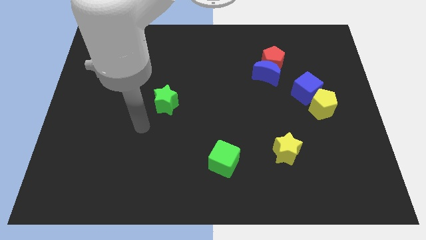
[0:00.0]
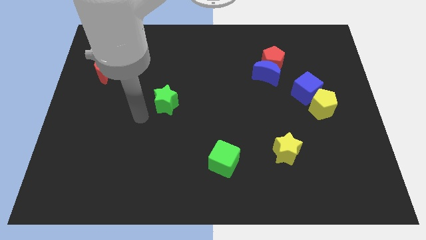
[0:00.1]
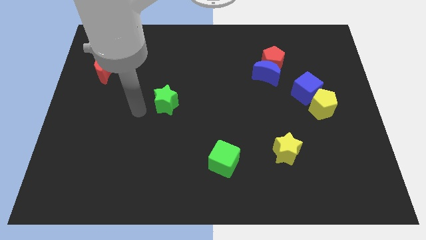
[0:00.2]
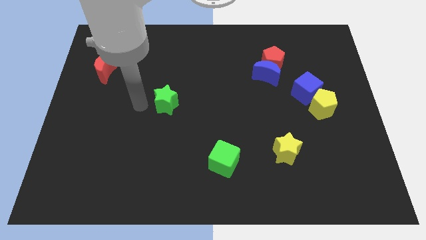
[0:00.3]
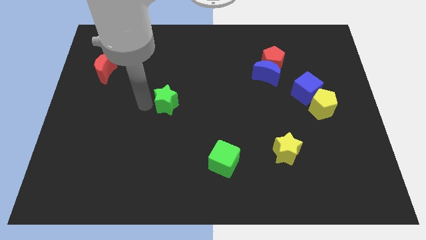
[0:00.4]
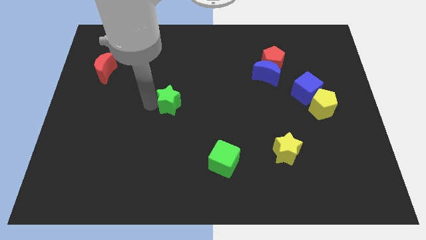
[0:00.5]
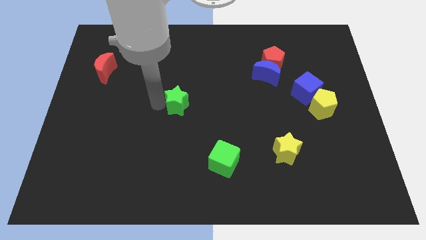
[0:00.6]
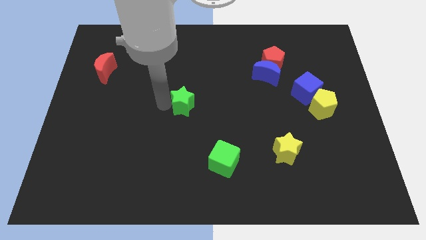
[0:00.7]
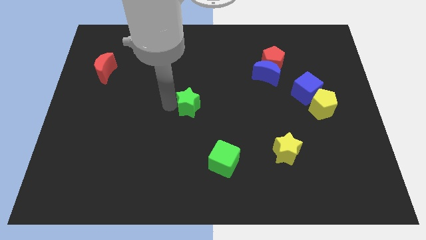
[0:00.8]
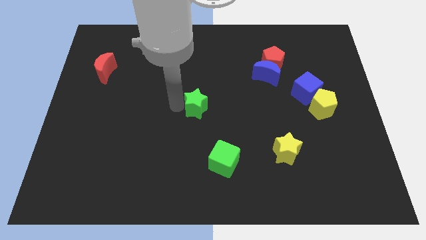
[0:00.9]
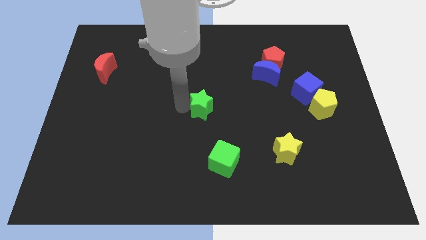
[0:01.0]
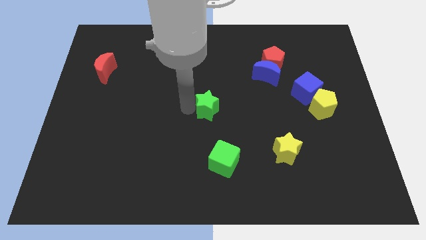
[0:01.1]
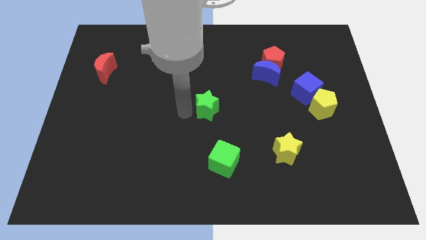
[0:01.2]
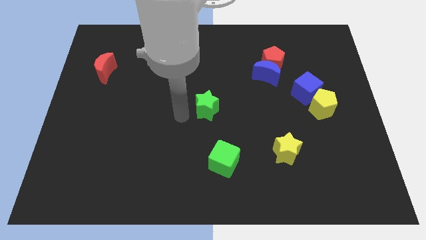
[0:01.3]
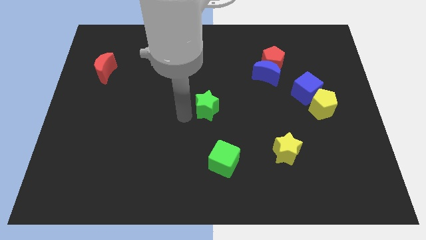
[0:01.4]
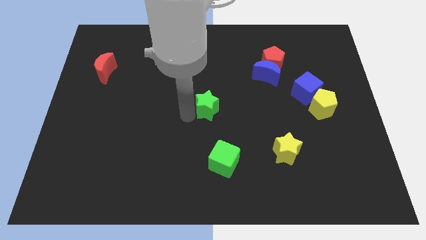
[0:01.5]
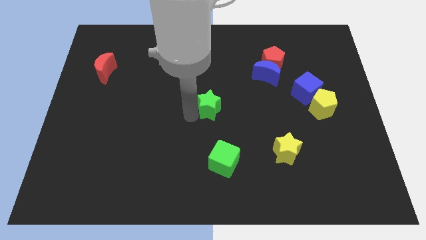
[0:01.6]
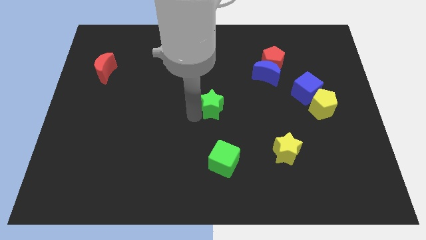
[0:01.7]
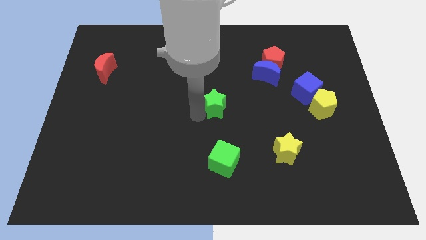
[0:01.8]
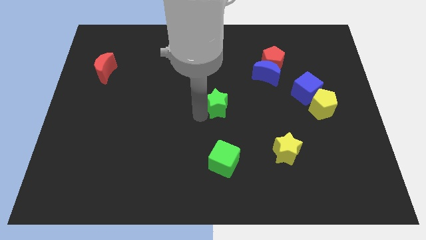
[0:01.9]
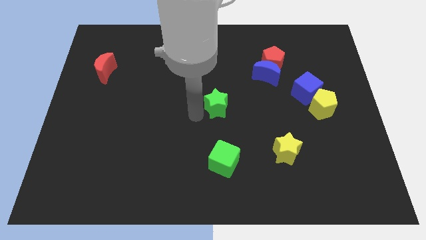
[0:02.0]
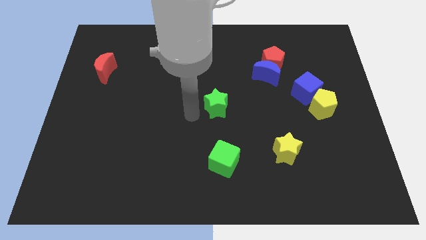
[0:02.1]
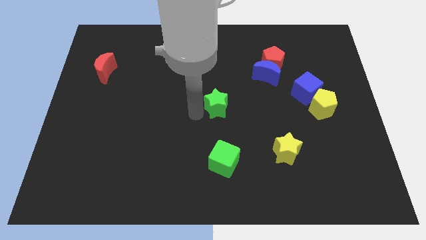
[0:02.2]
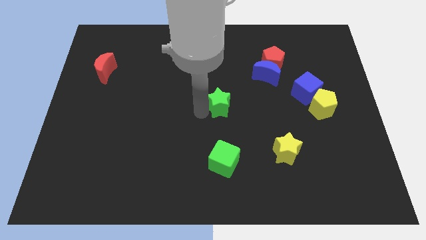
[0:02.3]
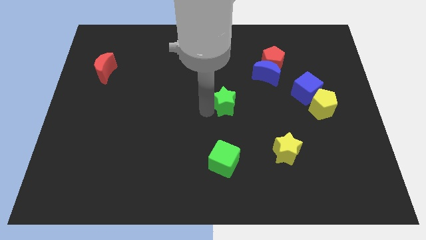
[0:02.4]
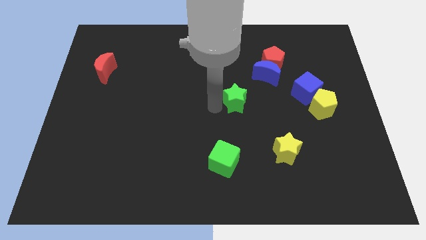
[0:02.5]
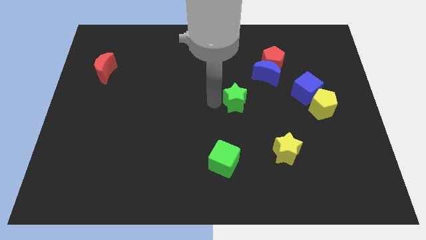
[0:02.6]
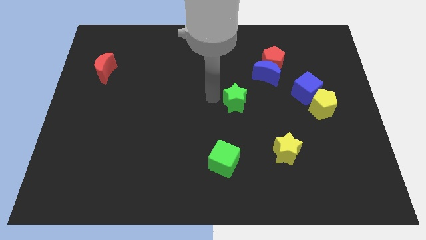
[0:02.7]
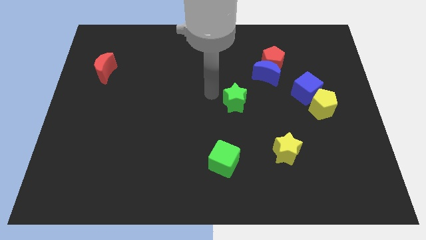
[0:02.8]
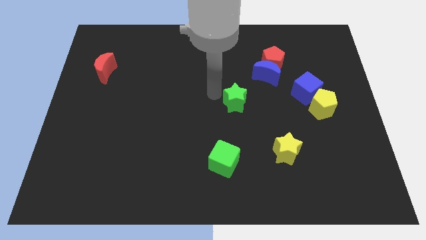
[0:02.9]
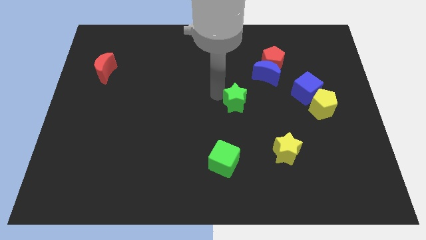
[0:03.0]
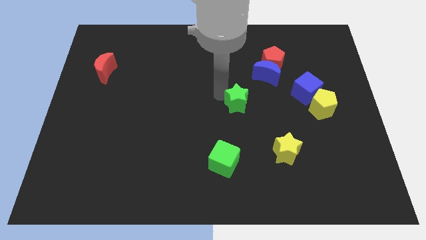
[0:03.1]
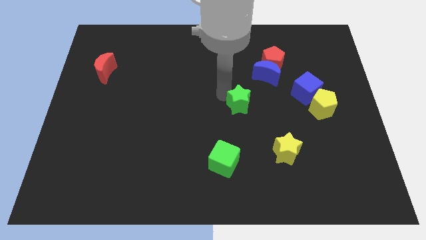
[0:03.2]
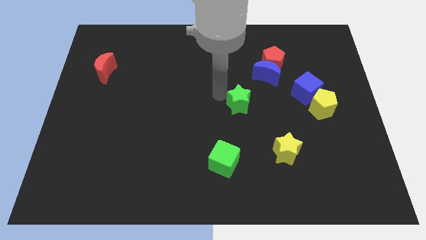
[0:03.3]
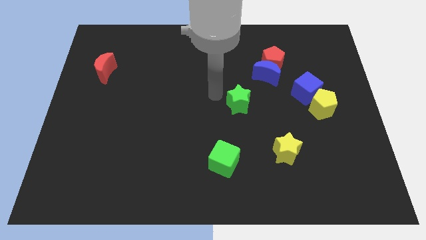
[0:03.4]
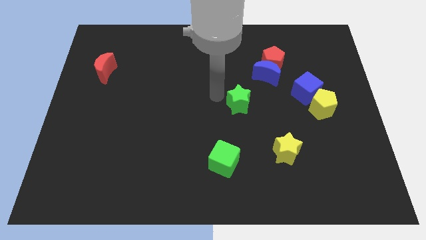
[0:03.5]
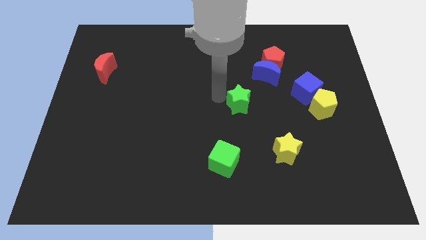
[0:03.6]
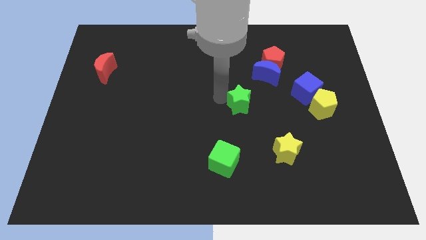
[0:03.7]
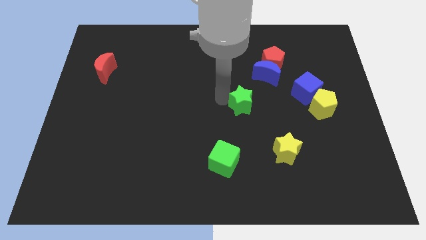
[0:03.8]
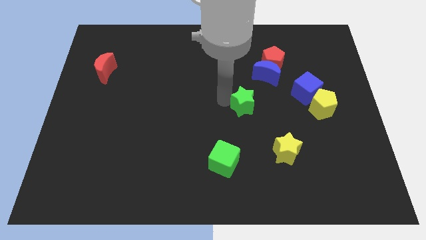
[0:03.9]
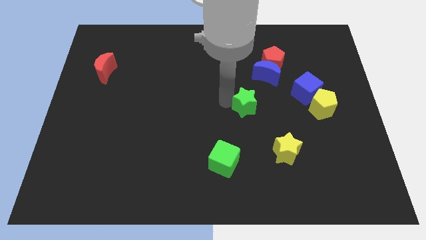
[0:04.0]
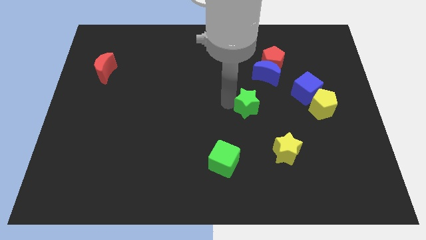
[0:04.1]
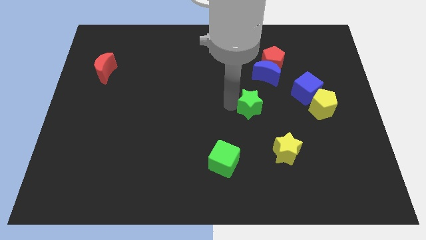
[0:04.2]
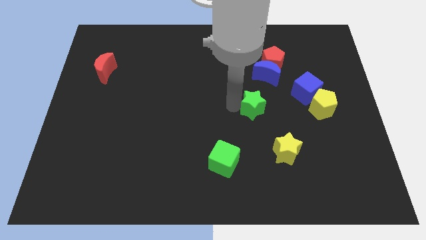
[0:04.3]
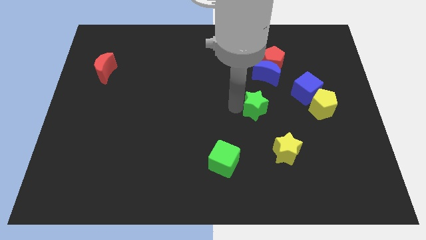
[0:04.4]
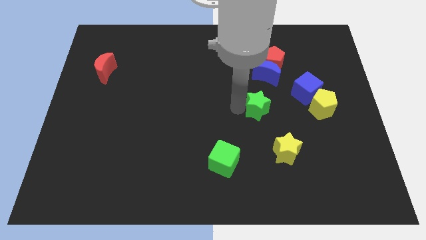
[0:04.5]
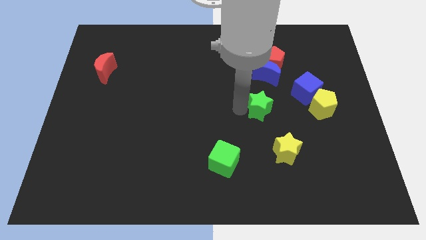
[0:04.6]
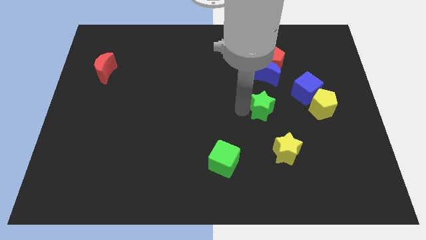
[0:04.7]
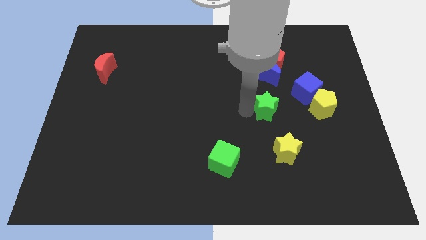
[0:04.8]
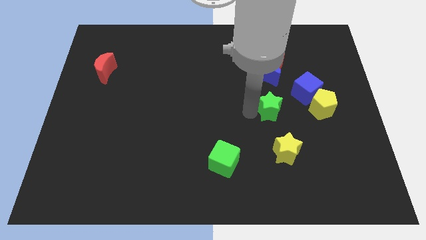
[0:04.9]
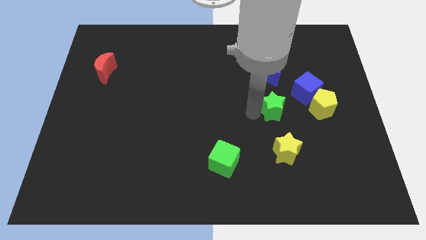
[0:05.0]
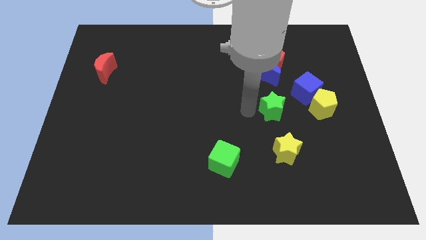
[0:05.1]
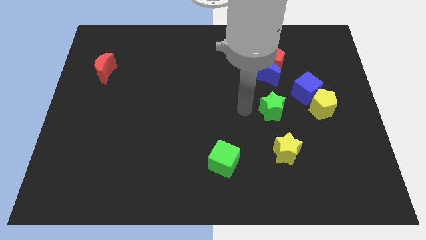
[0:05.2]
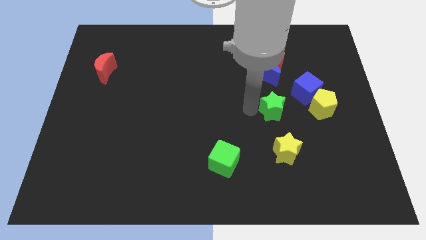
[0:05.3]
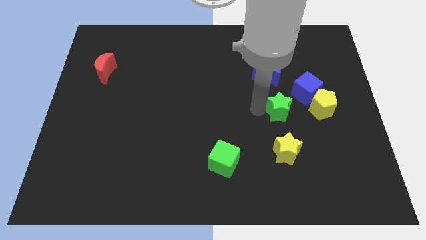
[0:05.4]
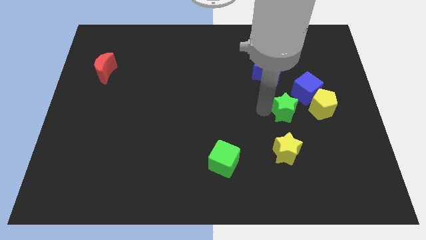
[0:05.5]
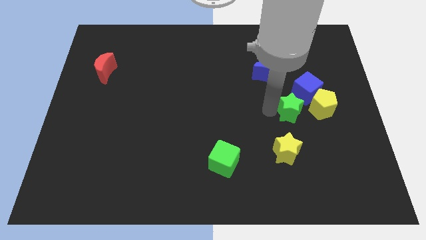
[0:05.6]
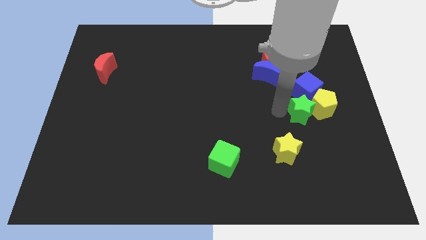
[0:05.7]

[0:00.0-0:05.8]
push the green star towards the yellow pentagon

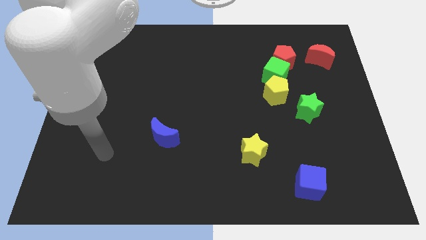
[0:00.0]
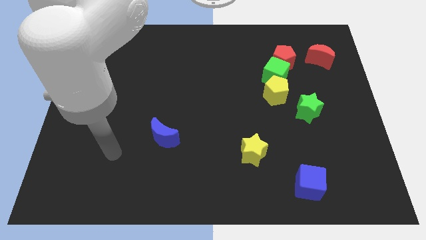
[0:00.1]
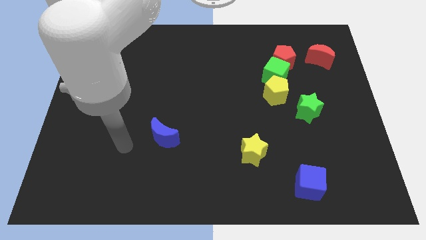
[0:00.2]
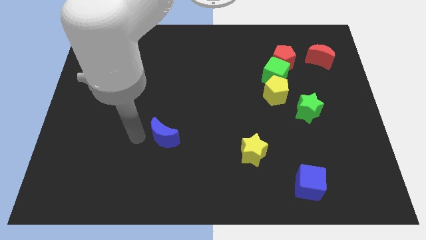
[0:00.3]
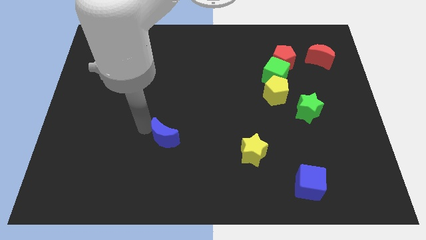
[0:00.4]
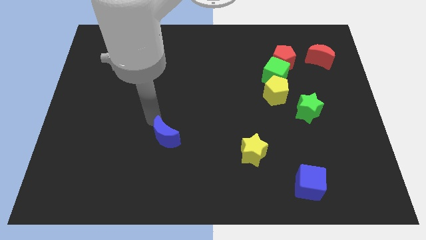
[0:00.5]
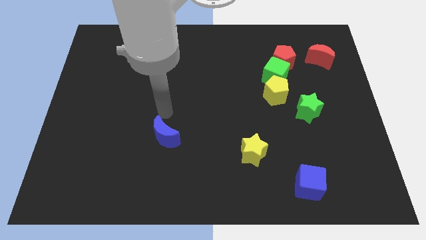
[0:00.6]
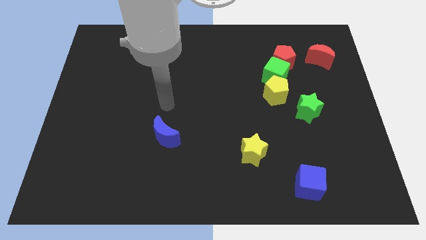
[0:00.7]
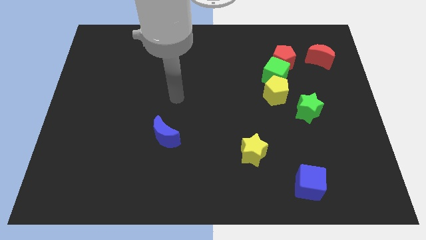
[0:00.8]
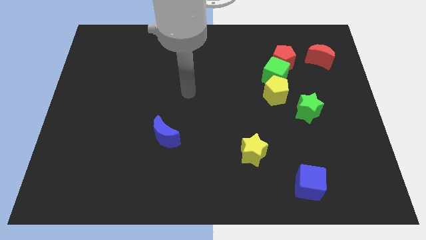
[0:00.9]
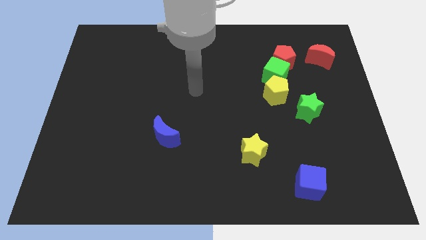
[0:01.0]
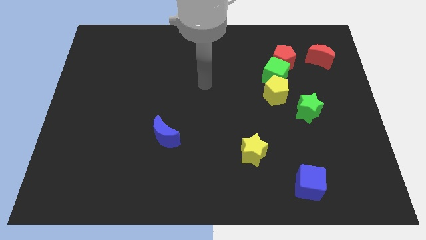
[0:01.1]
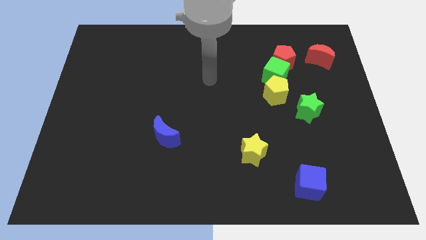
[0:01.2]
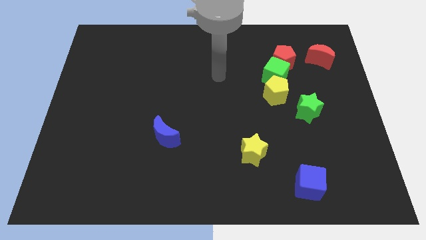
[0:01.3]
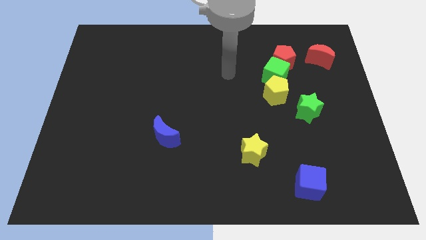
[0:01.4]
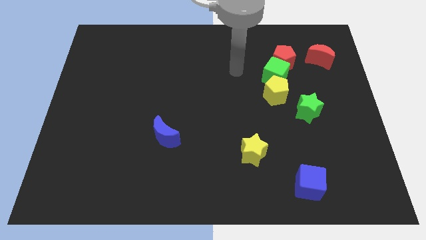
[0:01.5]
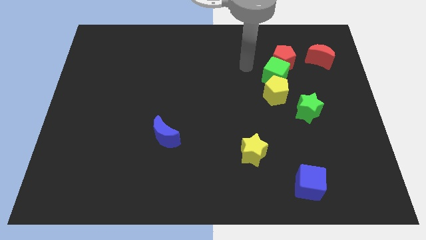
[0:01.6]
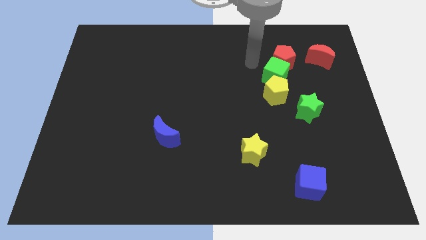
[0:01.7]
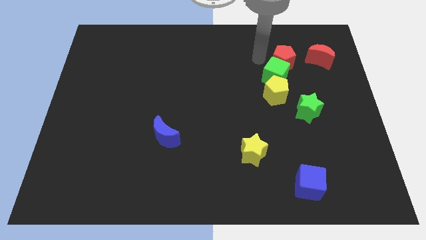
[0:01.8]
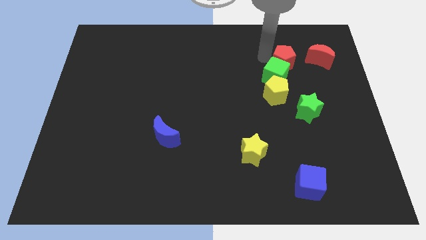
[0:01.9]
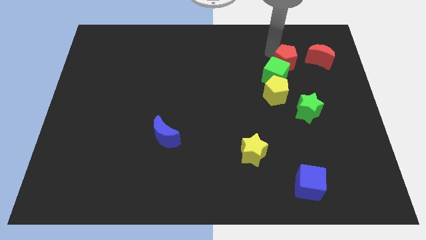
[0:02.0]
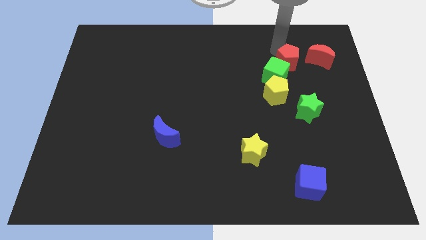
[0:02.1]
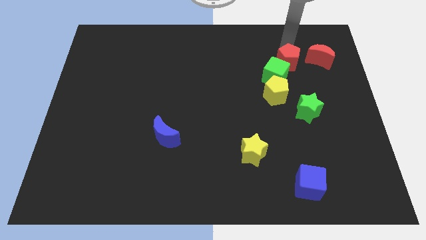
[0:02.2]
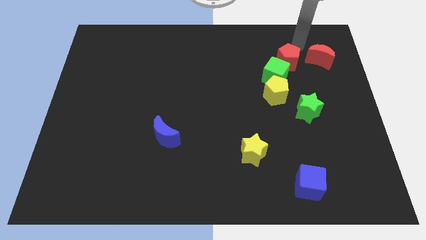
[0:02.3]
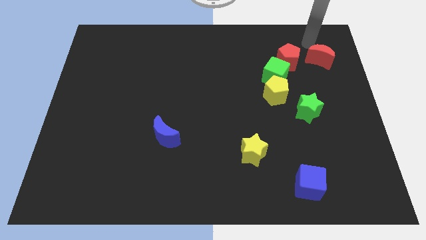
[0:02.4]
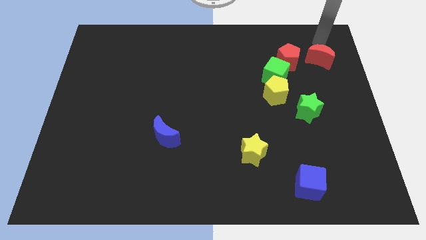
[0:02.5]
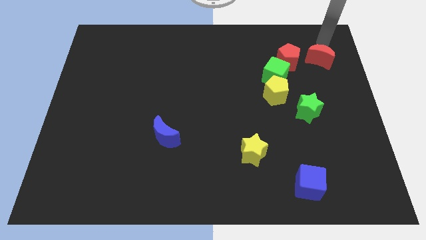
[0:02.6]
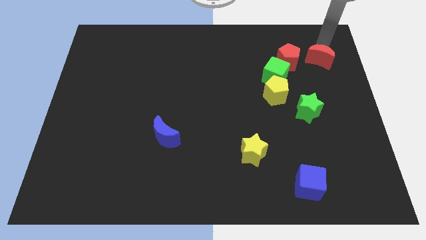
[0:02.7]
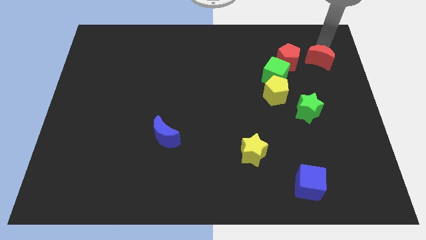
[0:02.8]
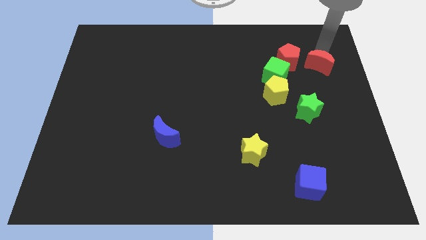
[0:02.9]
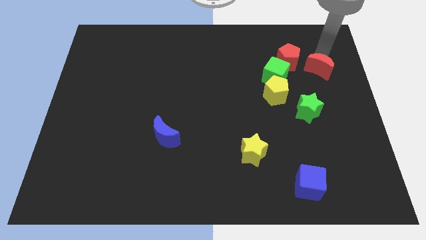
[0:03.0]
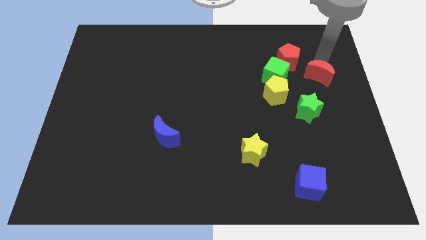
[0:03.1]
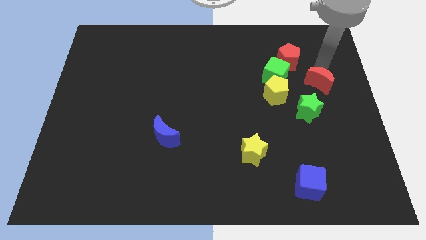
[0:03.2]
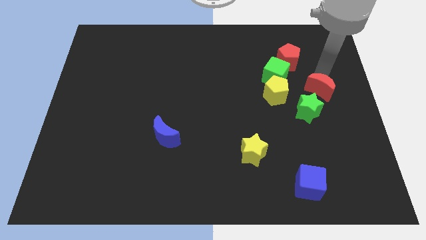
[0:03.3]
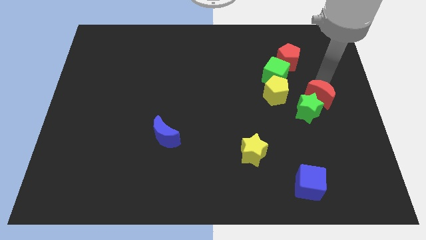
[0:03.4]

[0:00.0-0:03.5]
slide the red moon next to the green star
